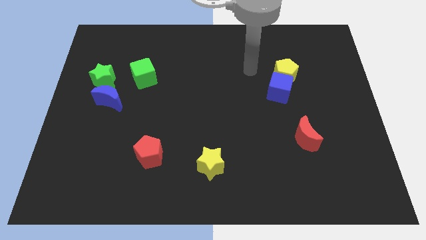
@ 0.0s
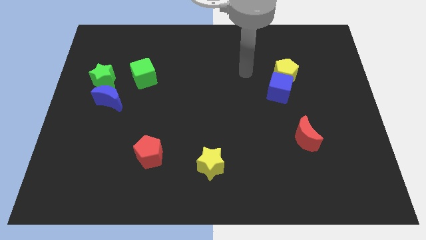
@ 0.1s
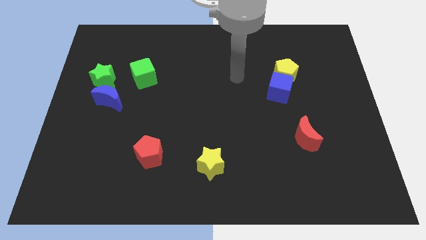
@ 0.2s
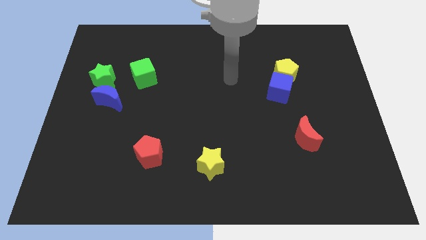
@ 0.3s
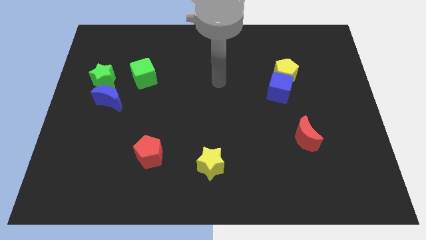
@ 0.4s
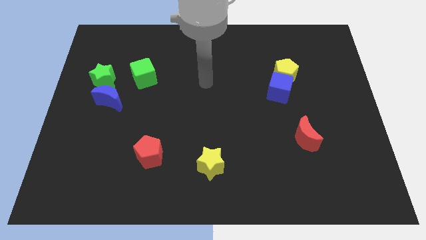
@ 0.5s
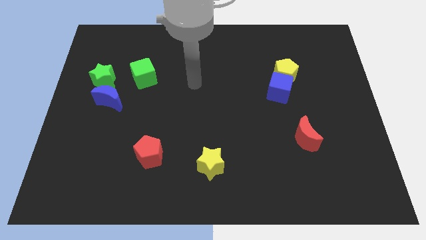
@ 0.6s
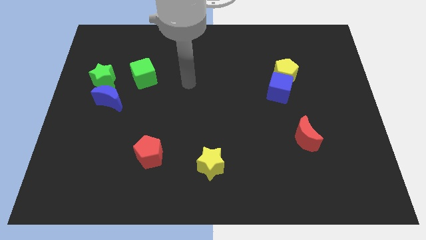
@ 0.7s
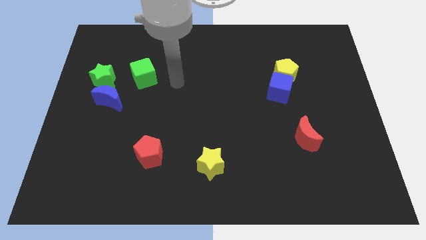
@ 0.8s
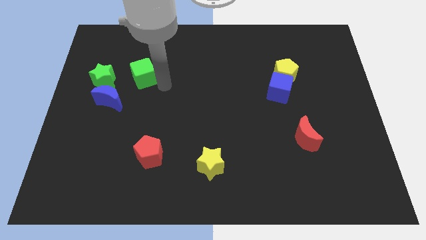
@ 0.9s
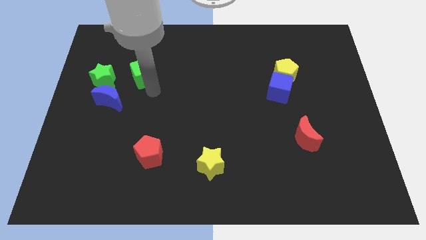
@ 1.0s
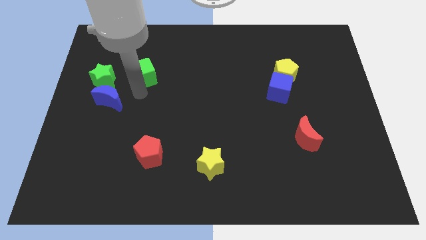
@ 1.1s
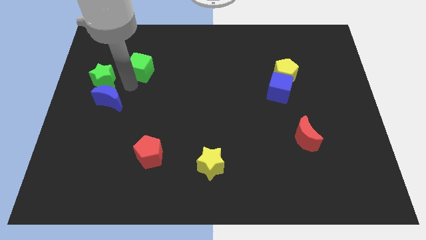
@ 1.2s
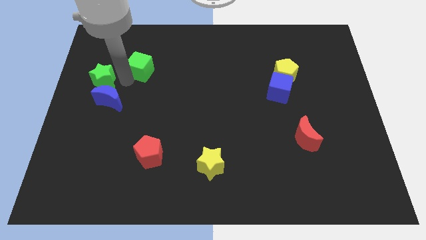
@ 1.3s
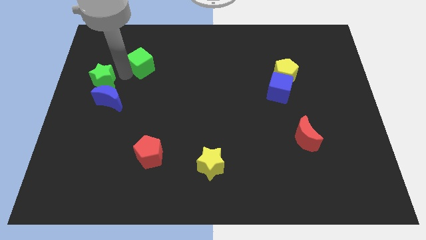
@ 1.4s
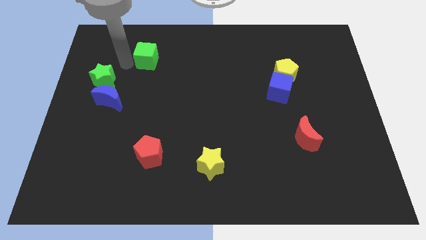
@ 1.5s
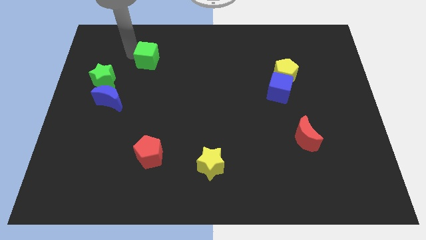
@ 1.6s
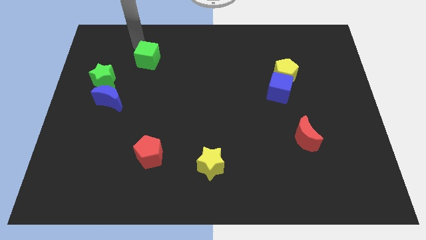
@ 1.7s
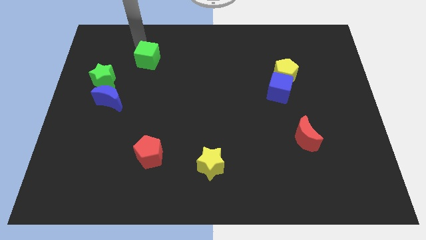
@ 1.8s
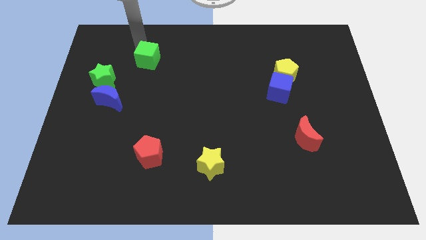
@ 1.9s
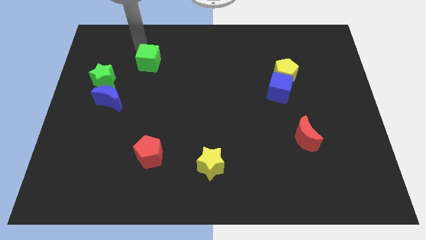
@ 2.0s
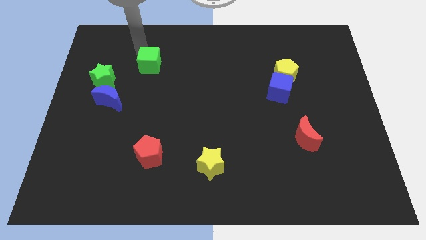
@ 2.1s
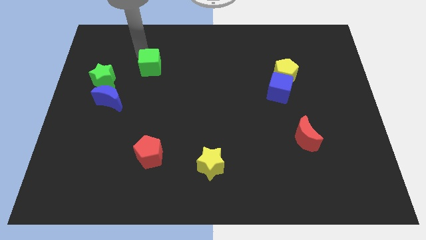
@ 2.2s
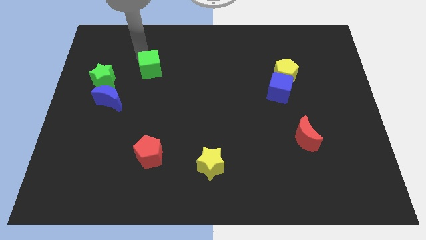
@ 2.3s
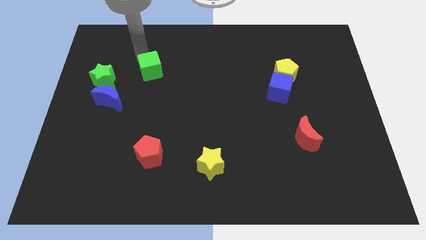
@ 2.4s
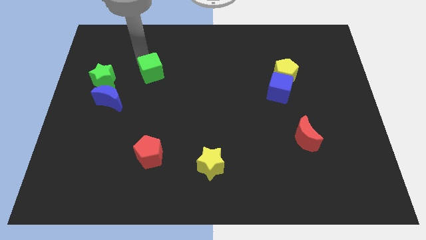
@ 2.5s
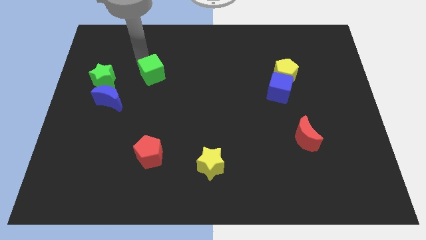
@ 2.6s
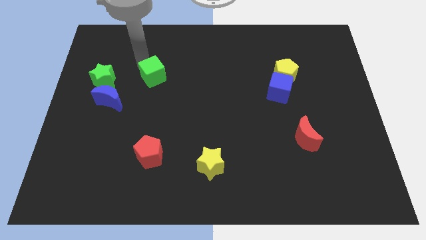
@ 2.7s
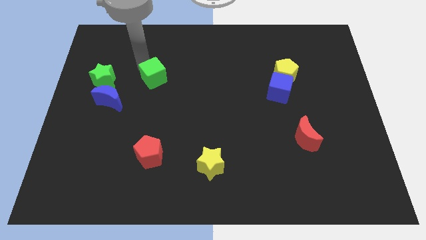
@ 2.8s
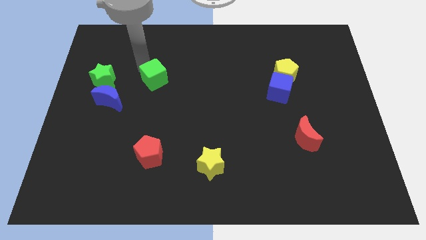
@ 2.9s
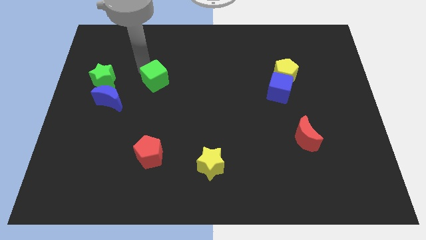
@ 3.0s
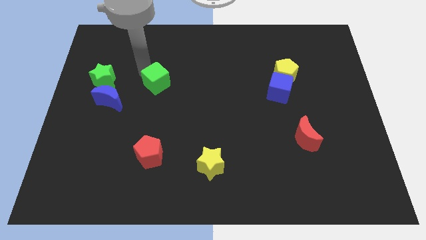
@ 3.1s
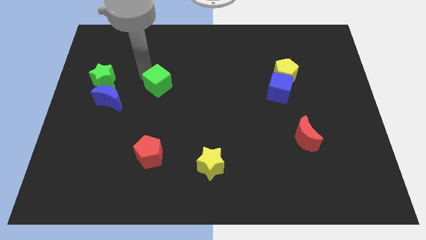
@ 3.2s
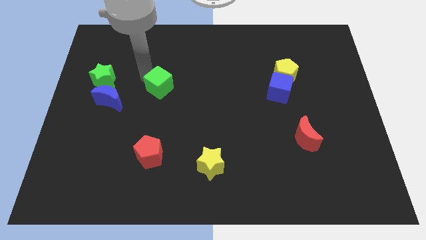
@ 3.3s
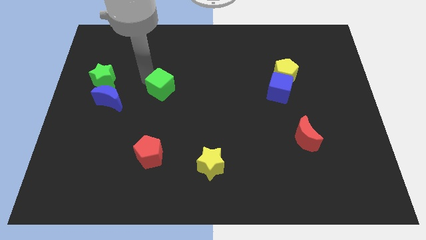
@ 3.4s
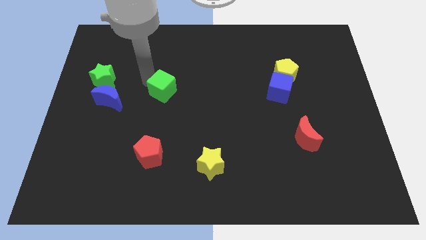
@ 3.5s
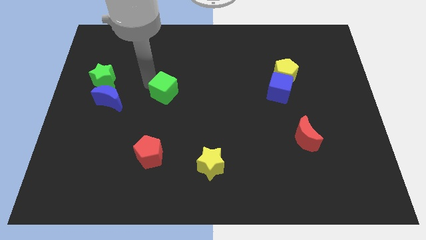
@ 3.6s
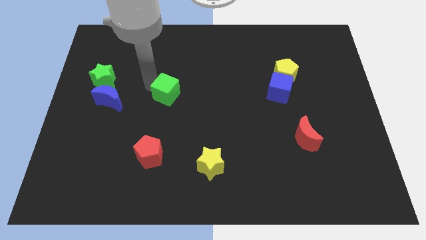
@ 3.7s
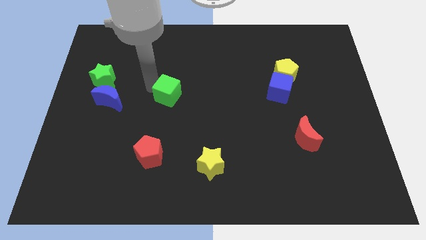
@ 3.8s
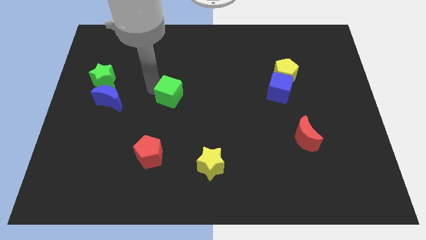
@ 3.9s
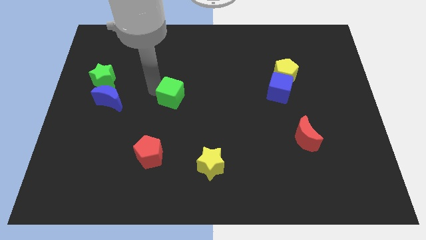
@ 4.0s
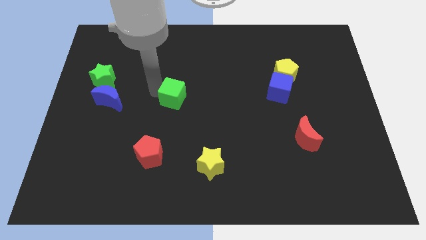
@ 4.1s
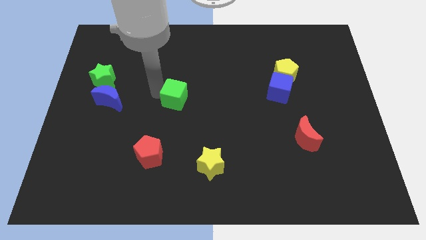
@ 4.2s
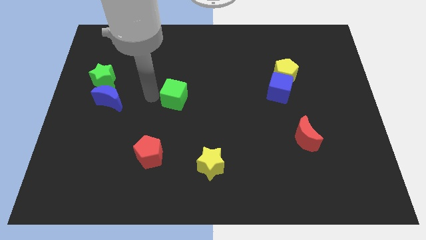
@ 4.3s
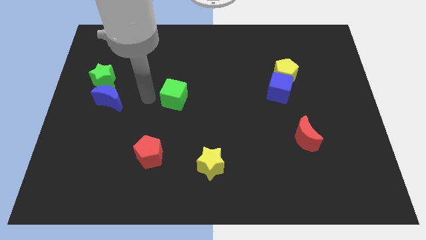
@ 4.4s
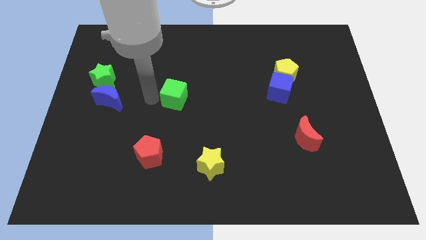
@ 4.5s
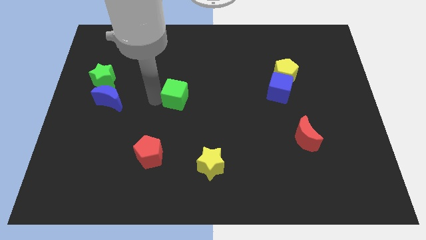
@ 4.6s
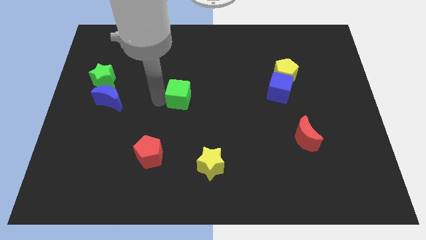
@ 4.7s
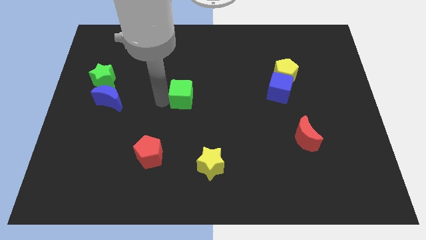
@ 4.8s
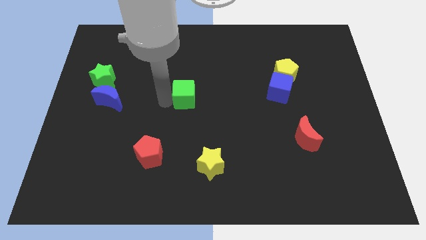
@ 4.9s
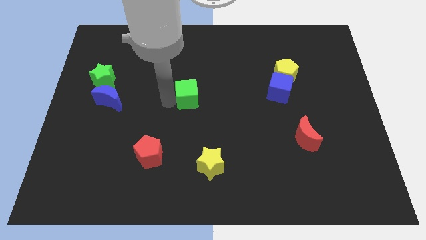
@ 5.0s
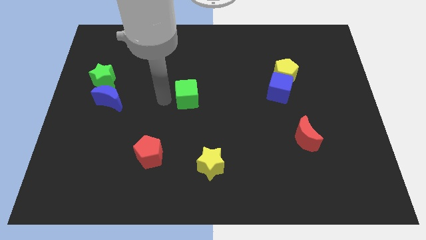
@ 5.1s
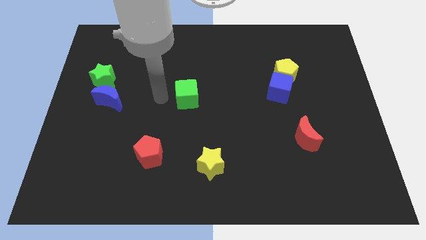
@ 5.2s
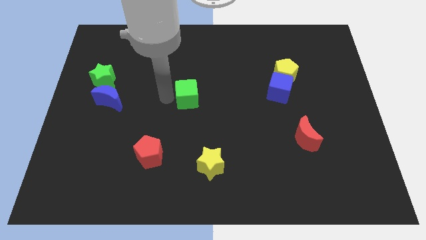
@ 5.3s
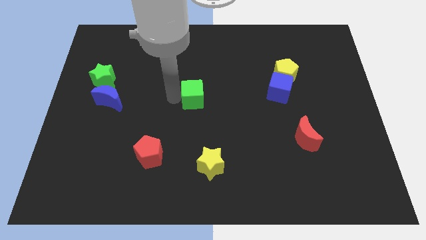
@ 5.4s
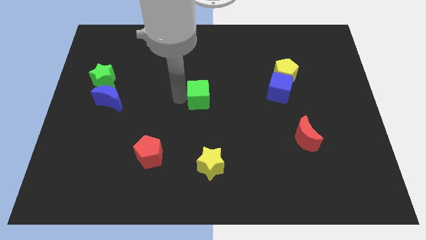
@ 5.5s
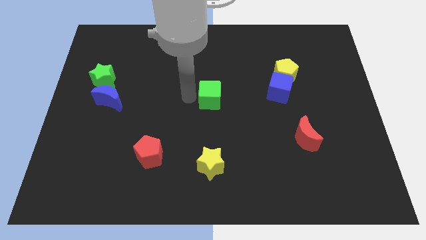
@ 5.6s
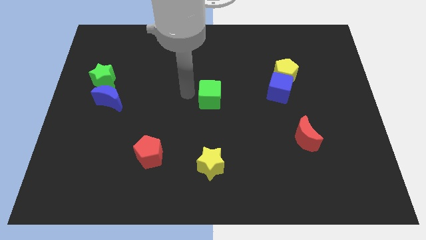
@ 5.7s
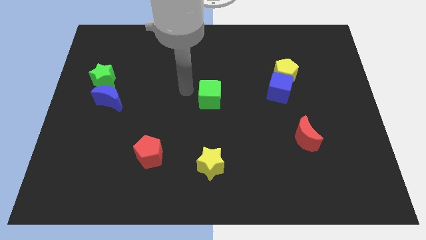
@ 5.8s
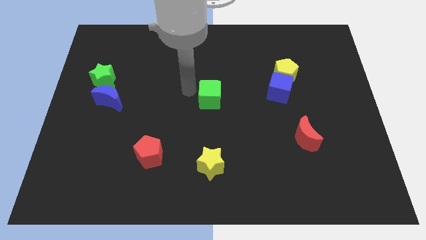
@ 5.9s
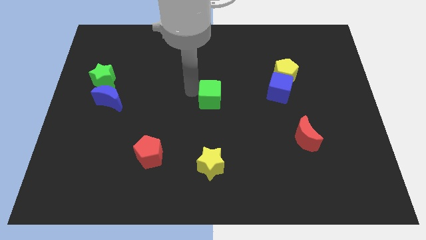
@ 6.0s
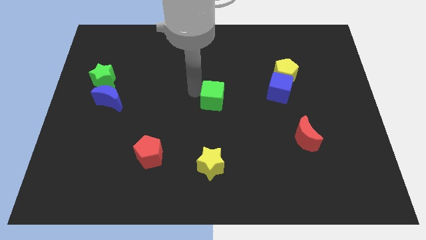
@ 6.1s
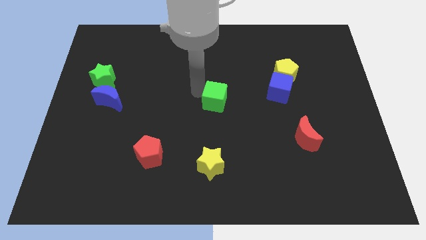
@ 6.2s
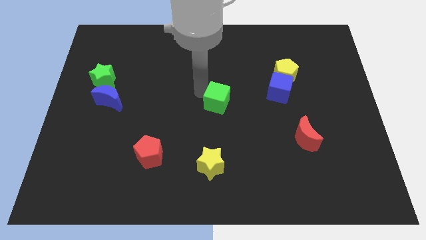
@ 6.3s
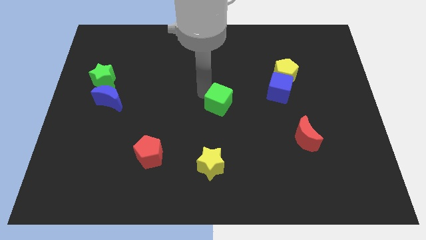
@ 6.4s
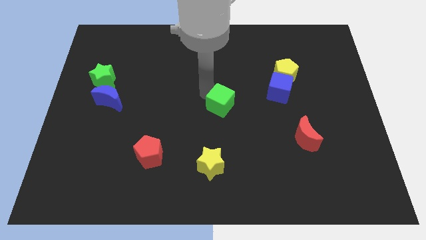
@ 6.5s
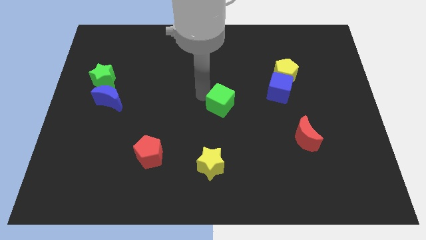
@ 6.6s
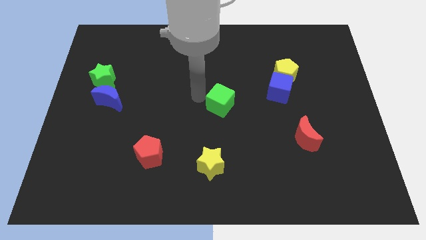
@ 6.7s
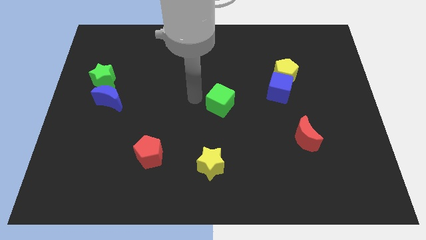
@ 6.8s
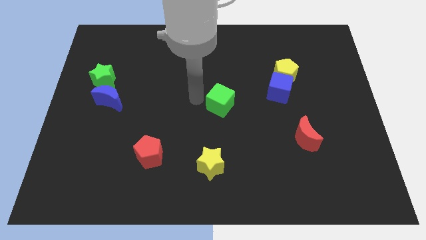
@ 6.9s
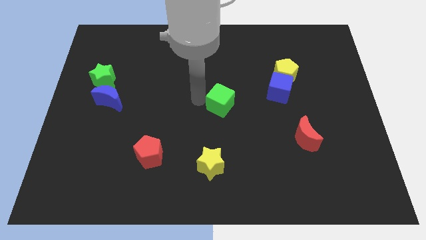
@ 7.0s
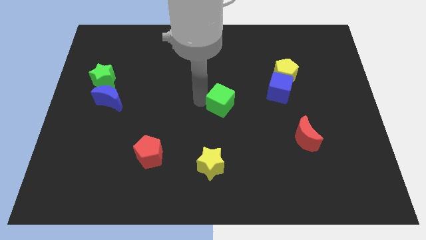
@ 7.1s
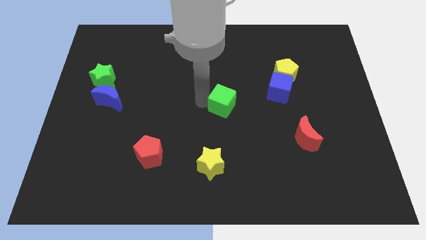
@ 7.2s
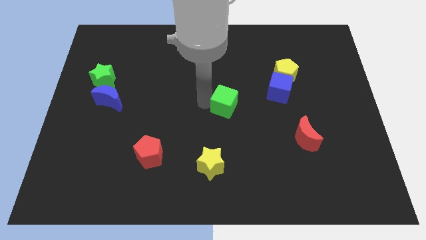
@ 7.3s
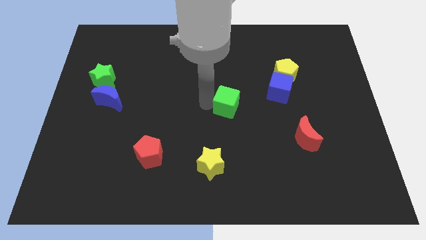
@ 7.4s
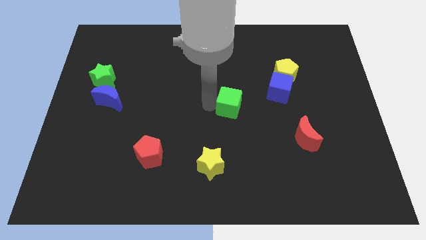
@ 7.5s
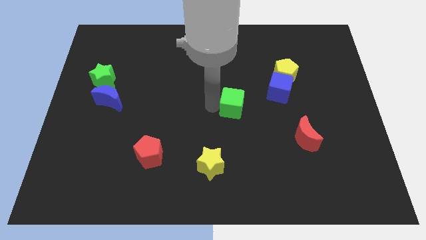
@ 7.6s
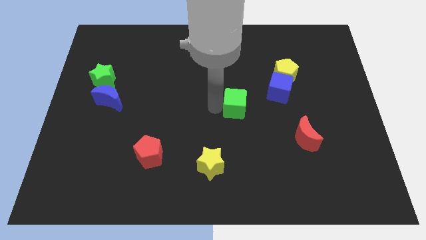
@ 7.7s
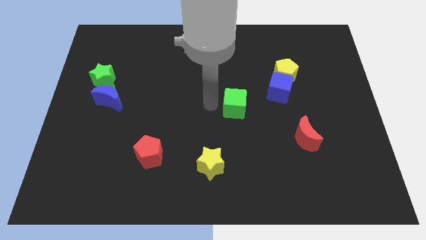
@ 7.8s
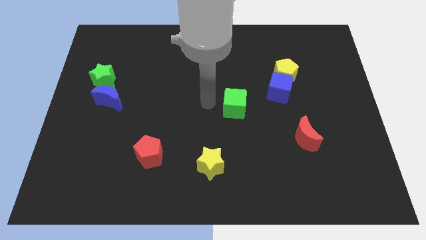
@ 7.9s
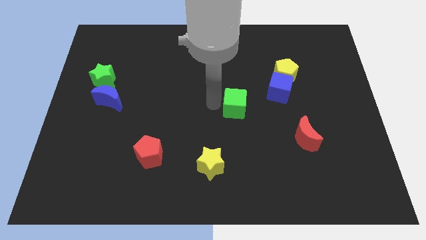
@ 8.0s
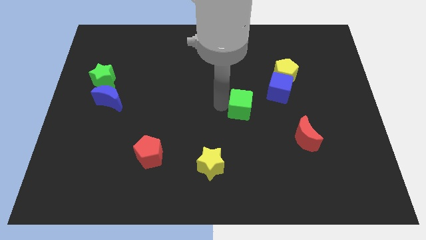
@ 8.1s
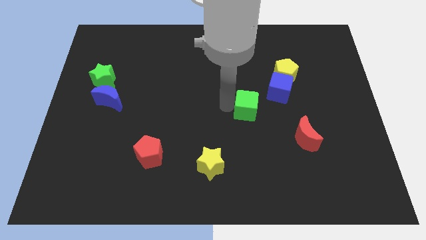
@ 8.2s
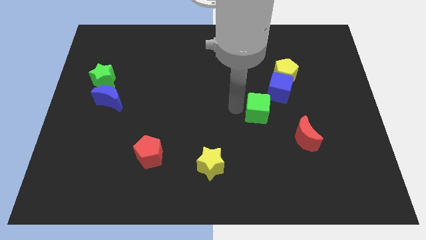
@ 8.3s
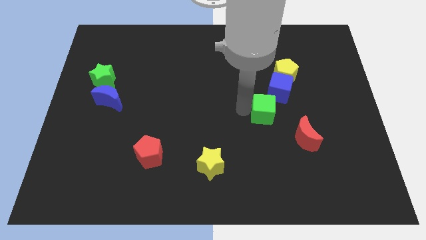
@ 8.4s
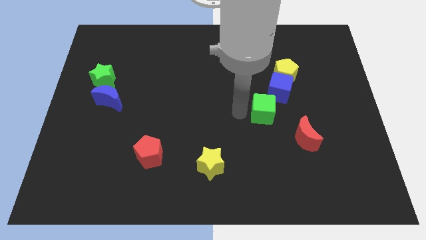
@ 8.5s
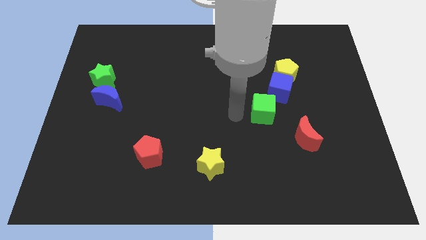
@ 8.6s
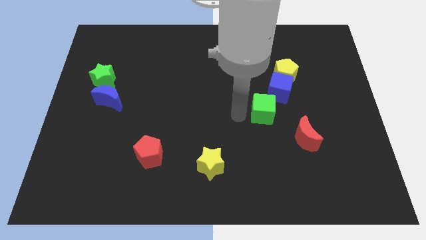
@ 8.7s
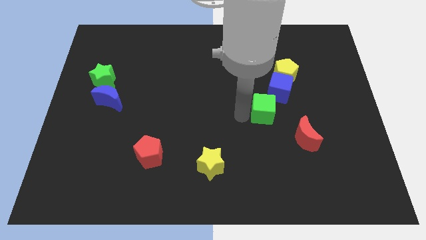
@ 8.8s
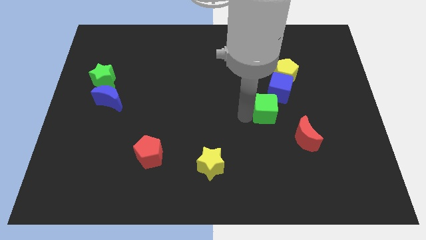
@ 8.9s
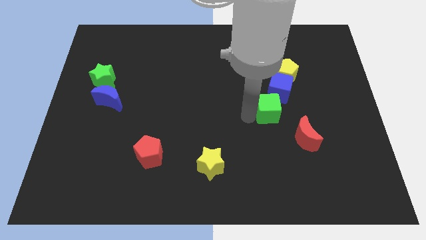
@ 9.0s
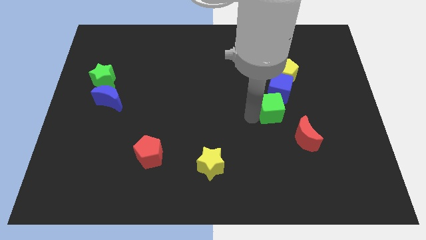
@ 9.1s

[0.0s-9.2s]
put the green cube below the yellow pentagon
